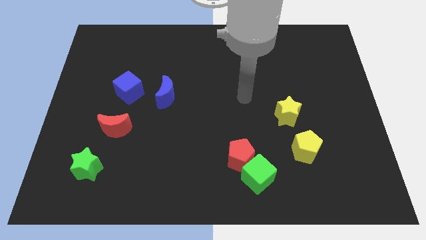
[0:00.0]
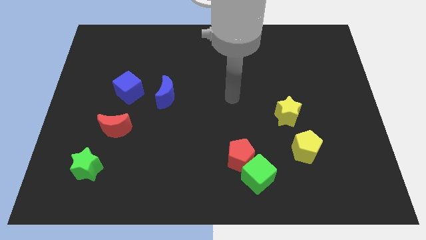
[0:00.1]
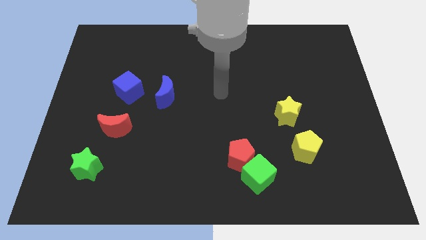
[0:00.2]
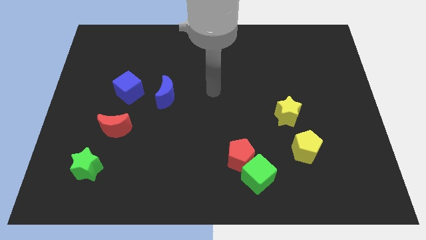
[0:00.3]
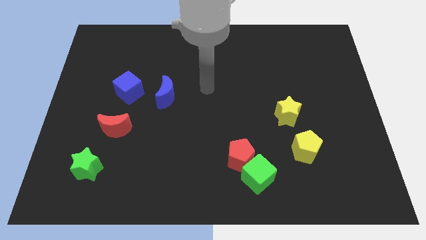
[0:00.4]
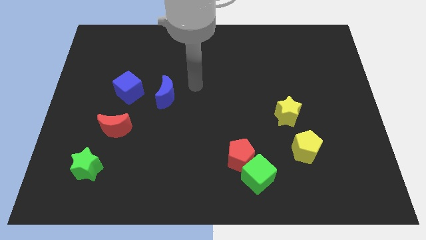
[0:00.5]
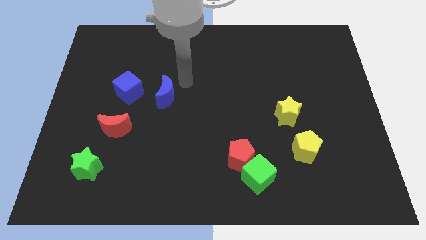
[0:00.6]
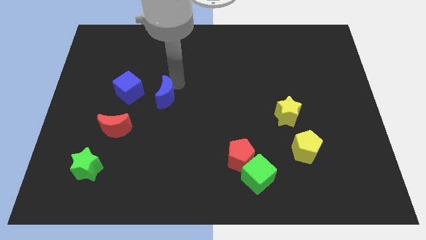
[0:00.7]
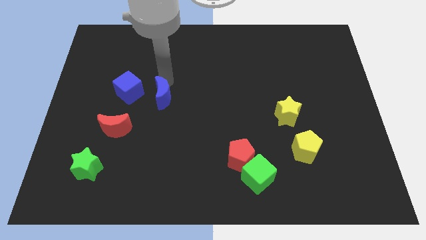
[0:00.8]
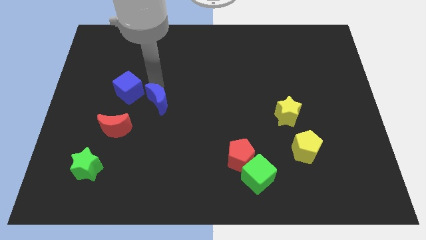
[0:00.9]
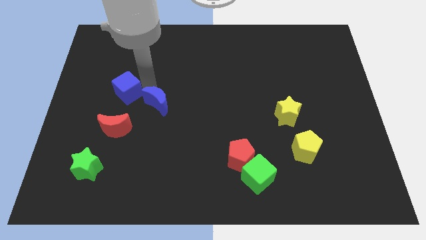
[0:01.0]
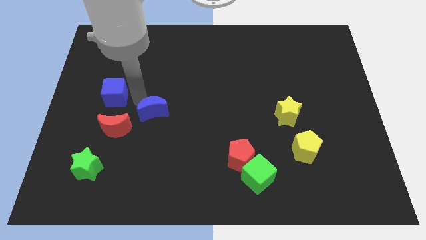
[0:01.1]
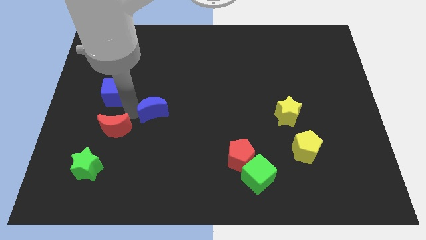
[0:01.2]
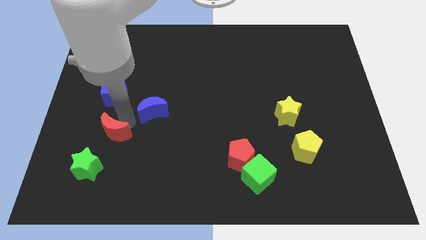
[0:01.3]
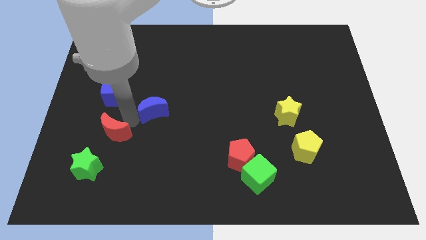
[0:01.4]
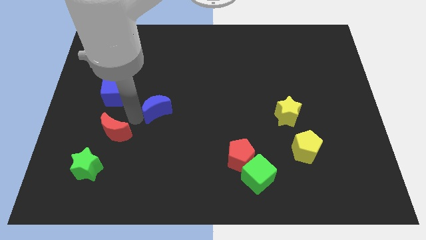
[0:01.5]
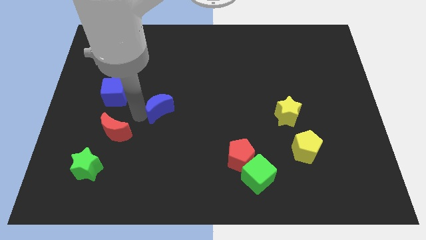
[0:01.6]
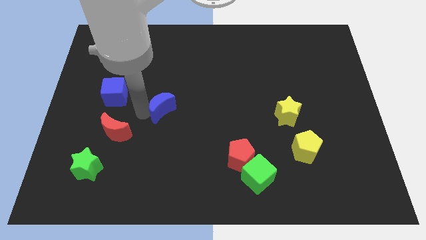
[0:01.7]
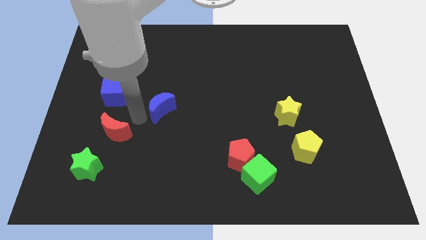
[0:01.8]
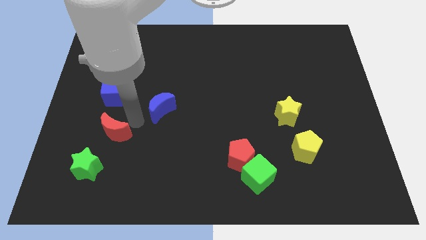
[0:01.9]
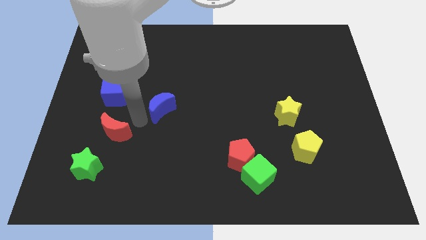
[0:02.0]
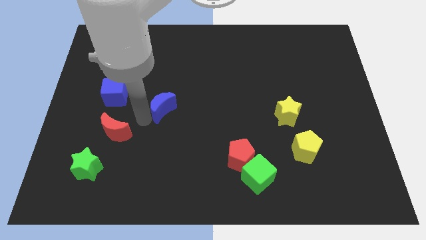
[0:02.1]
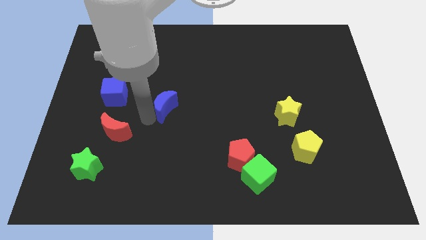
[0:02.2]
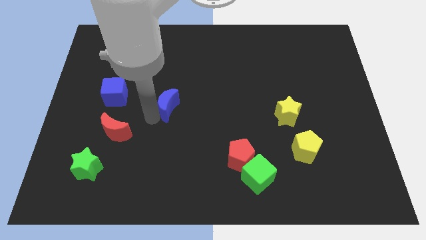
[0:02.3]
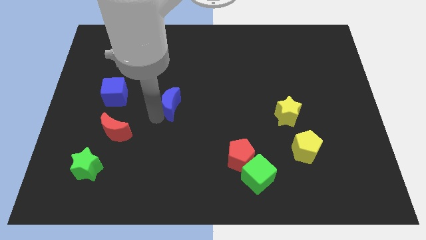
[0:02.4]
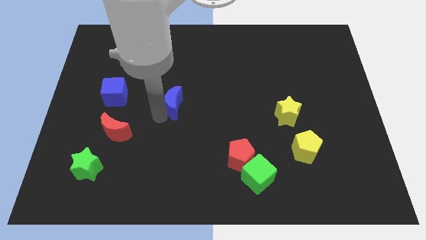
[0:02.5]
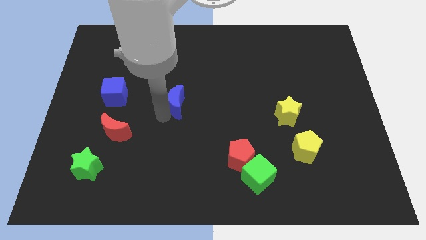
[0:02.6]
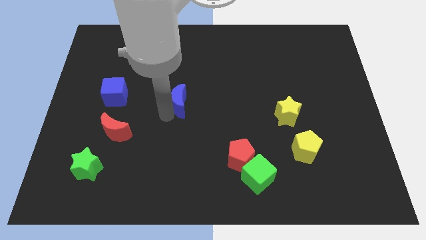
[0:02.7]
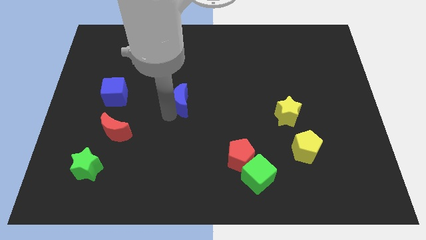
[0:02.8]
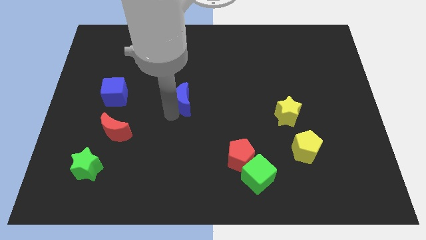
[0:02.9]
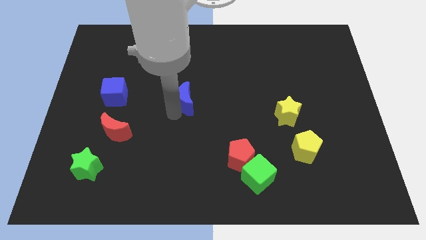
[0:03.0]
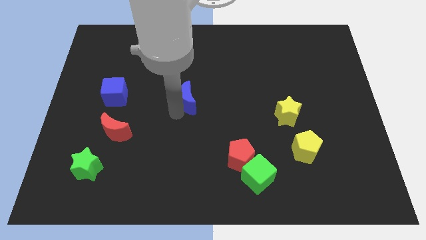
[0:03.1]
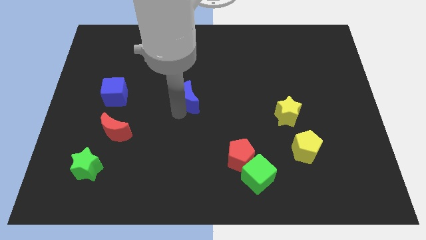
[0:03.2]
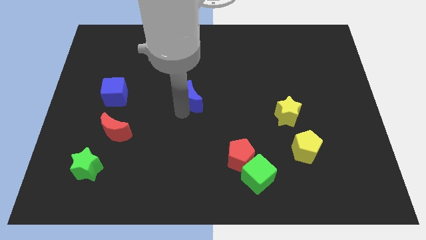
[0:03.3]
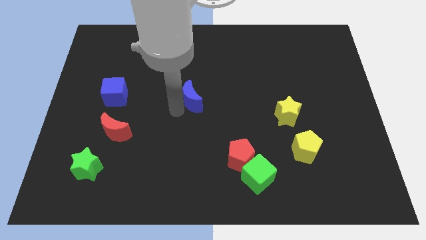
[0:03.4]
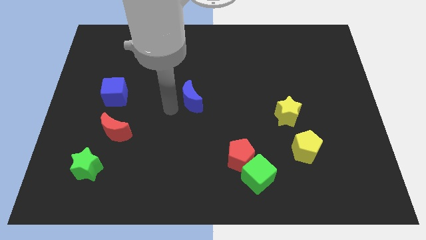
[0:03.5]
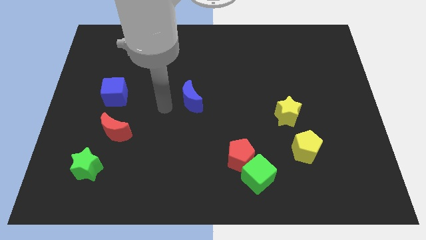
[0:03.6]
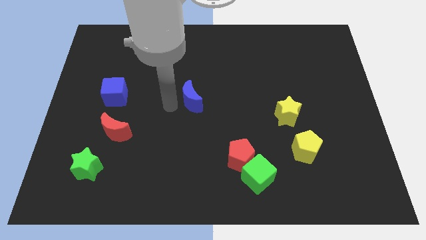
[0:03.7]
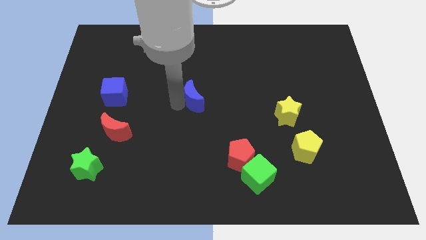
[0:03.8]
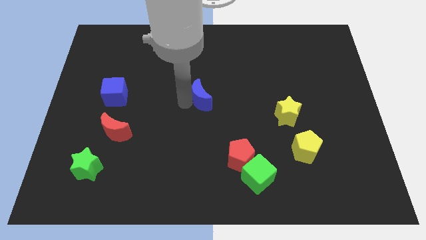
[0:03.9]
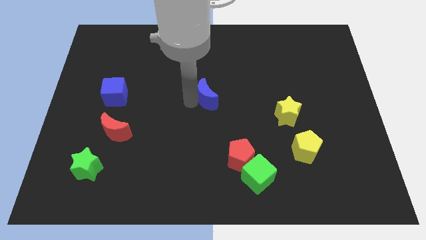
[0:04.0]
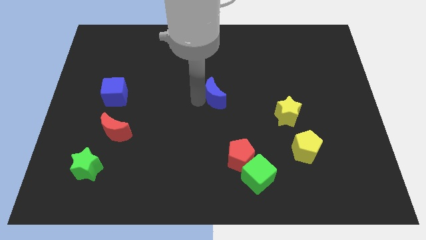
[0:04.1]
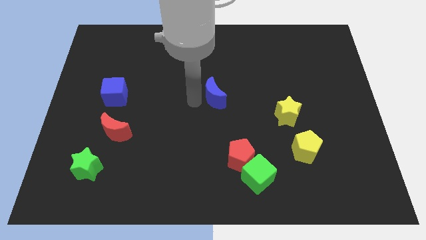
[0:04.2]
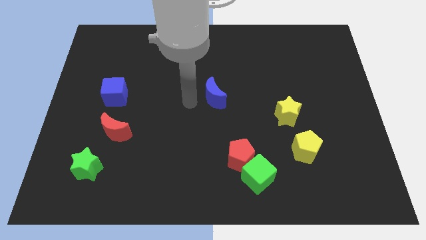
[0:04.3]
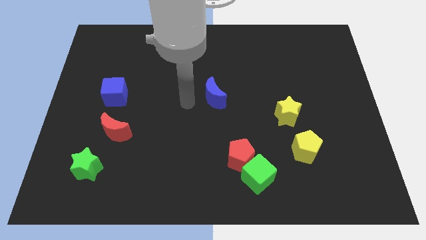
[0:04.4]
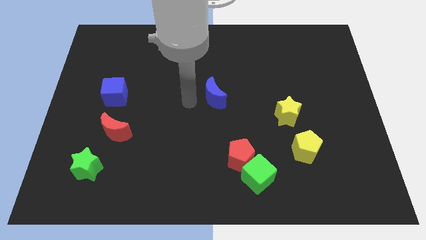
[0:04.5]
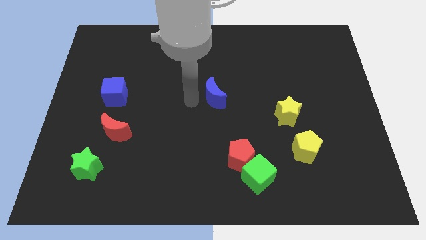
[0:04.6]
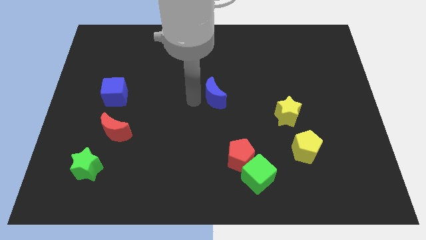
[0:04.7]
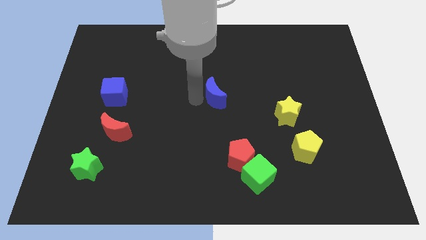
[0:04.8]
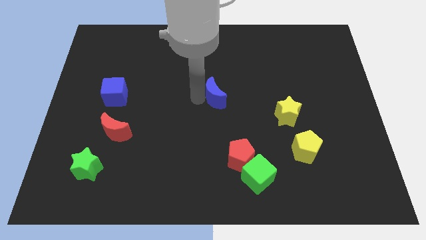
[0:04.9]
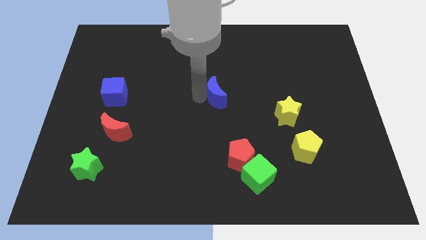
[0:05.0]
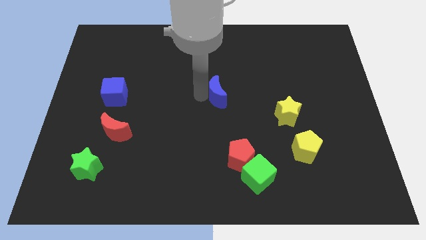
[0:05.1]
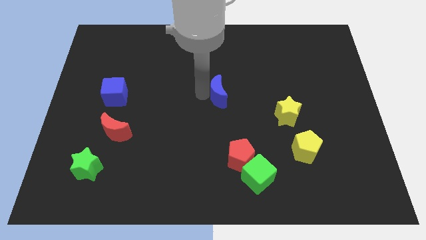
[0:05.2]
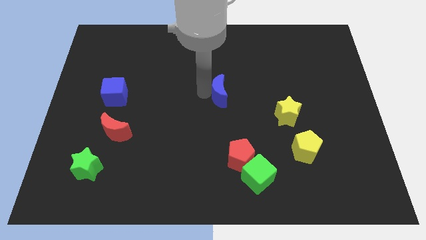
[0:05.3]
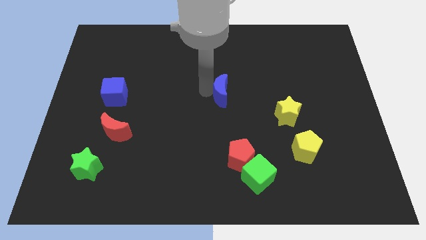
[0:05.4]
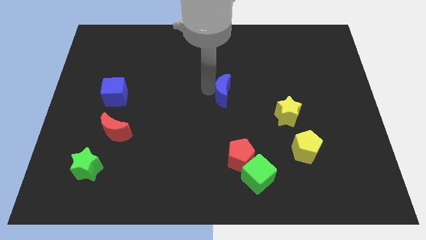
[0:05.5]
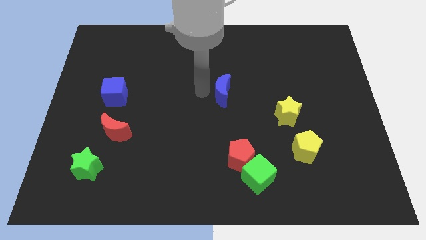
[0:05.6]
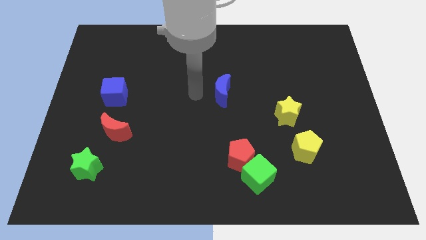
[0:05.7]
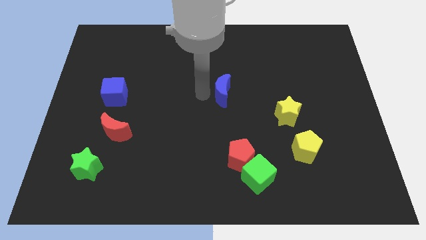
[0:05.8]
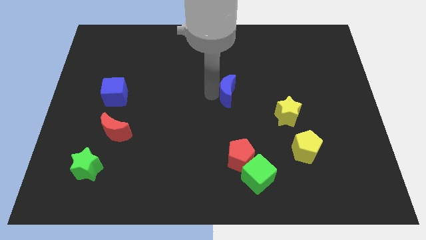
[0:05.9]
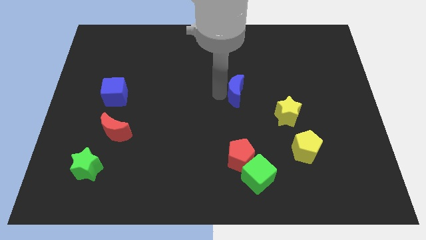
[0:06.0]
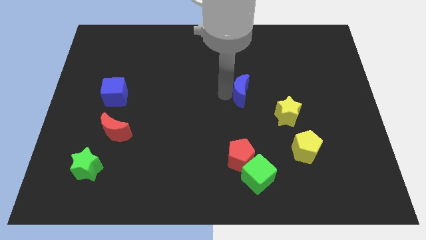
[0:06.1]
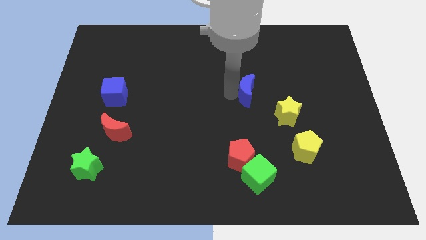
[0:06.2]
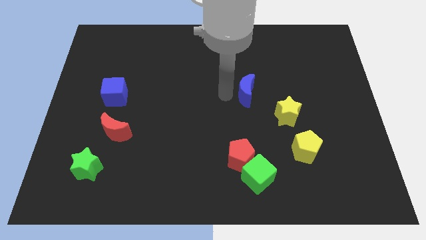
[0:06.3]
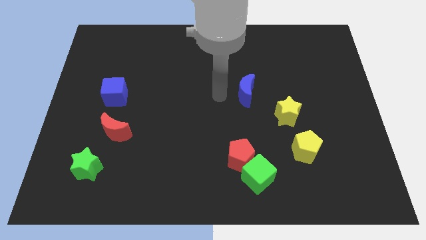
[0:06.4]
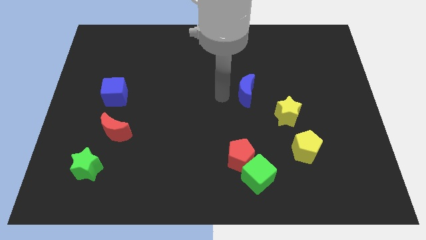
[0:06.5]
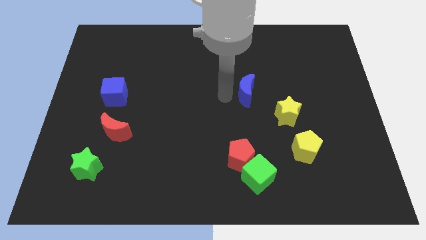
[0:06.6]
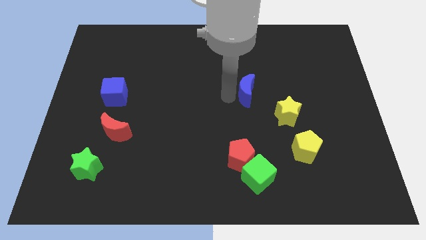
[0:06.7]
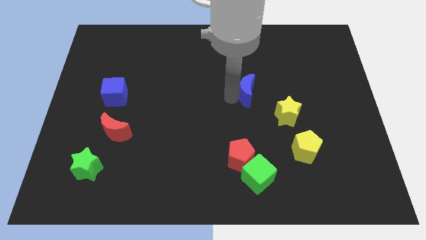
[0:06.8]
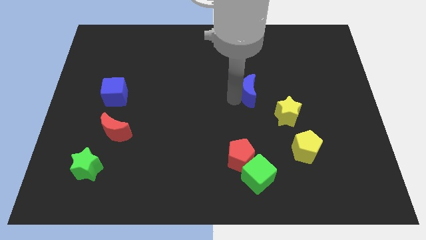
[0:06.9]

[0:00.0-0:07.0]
move the blue moon right

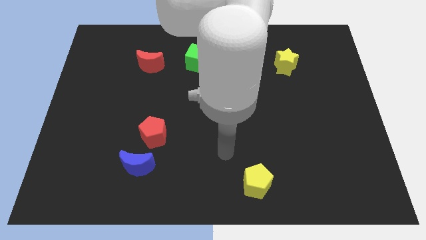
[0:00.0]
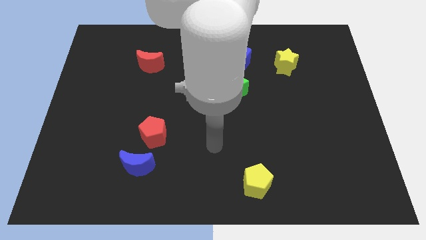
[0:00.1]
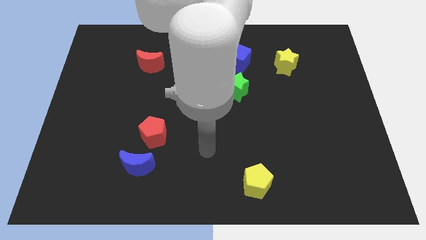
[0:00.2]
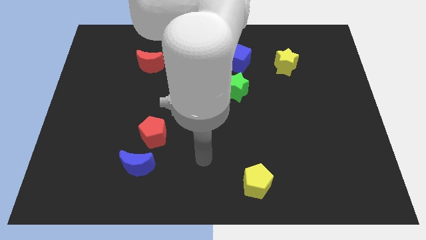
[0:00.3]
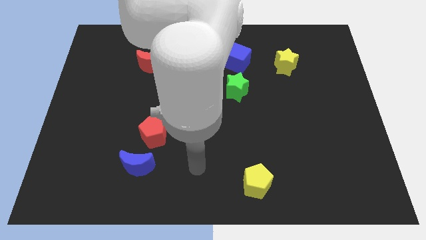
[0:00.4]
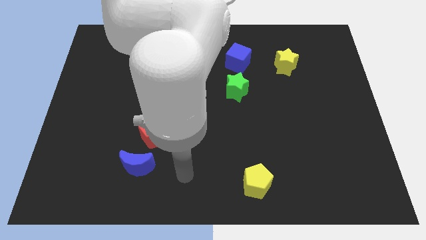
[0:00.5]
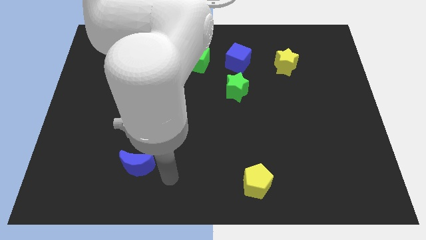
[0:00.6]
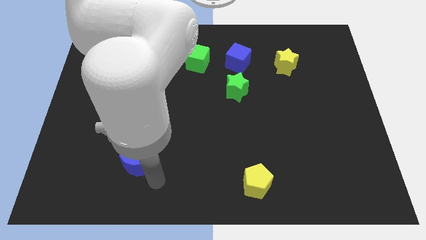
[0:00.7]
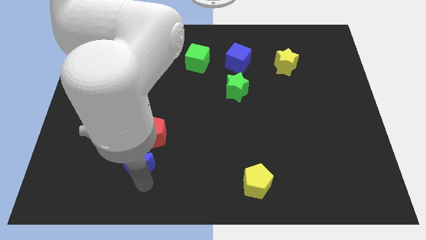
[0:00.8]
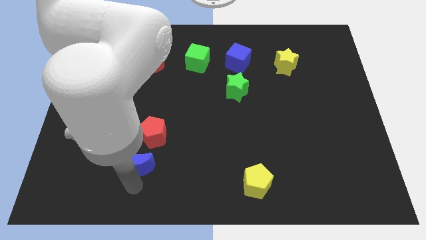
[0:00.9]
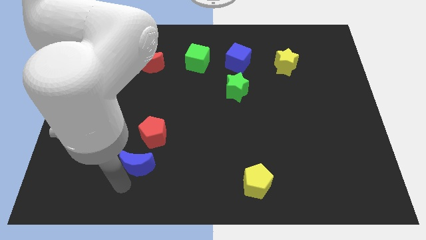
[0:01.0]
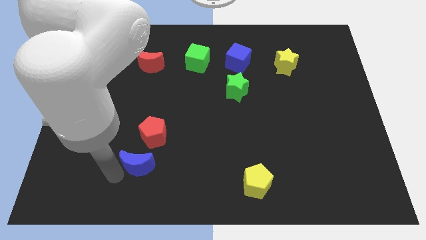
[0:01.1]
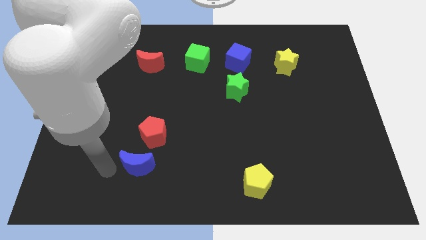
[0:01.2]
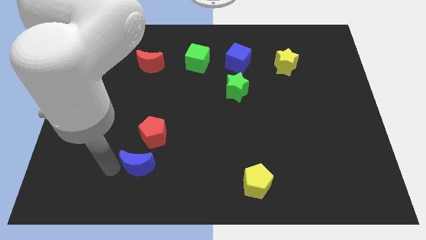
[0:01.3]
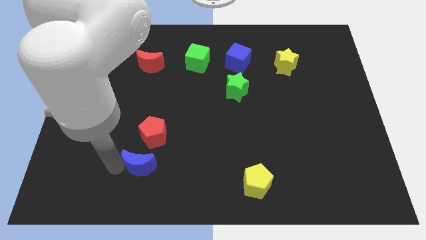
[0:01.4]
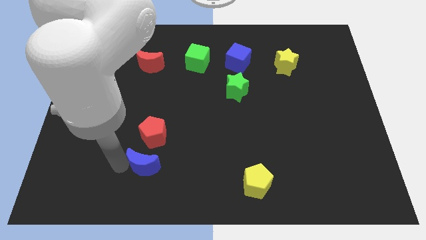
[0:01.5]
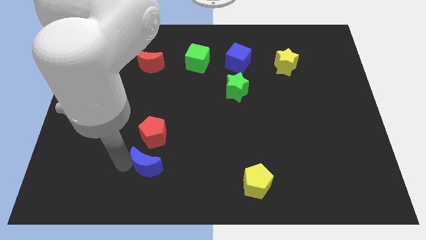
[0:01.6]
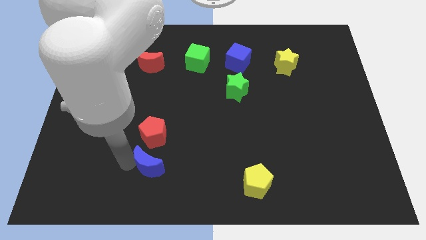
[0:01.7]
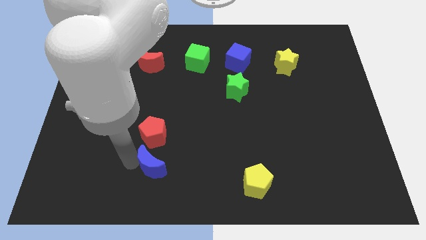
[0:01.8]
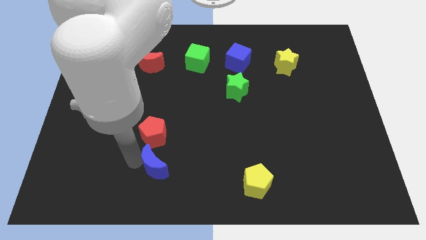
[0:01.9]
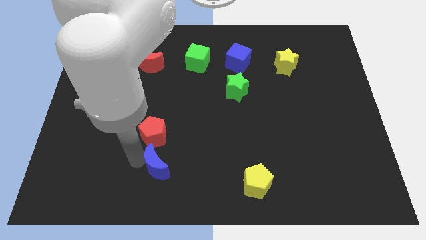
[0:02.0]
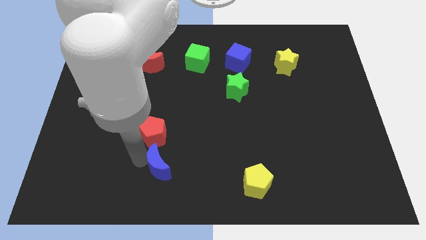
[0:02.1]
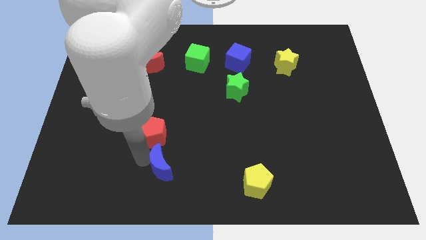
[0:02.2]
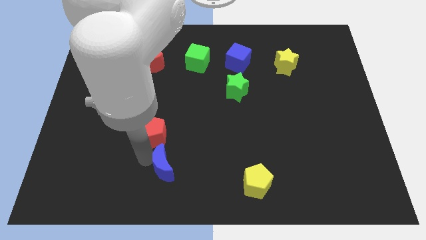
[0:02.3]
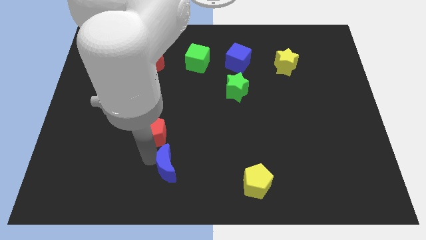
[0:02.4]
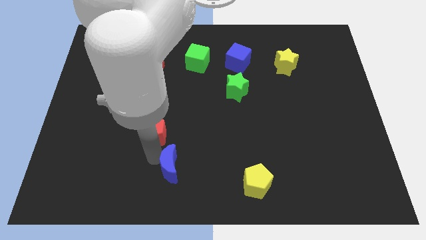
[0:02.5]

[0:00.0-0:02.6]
move the blue moon slightly right
